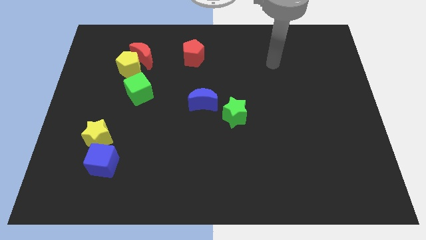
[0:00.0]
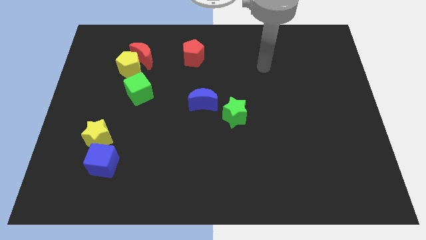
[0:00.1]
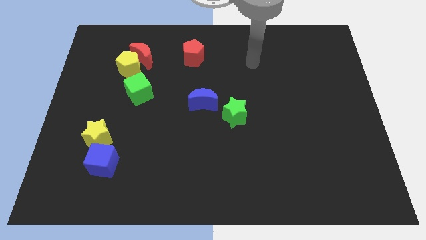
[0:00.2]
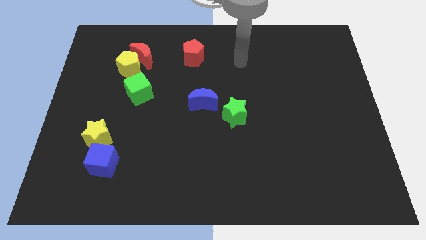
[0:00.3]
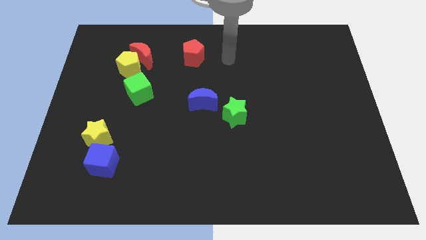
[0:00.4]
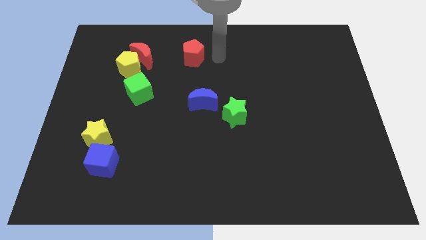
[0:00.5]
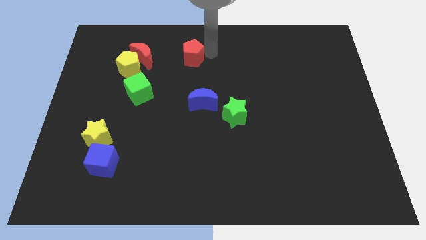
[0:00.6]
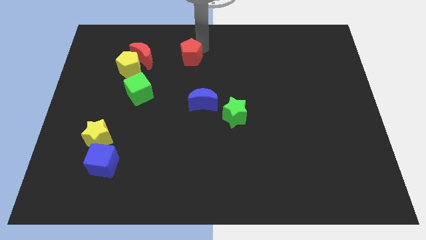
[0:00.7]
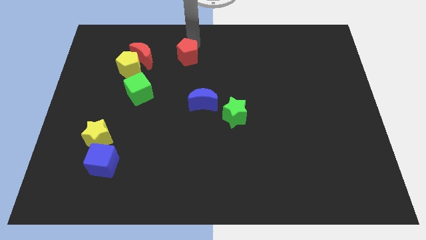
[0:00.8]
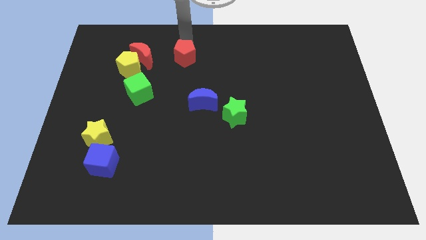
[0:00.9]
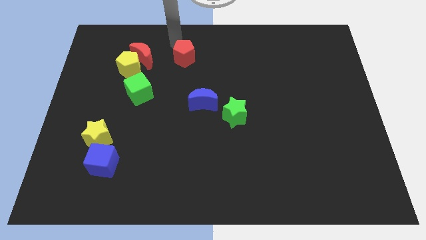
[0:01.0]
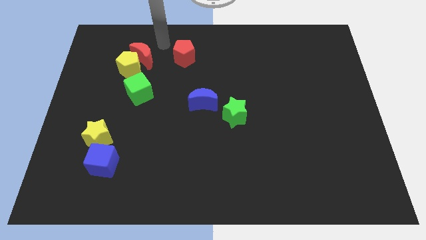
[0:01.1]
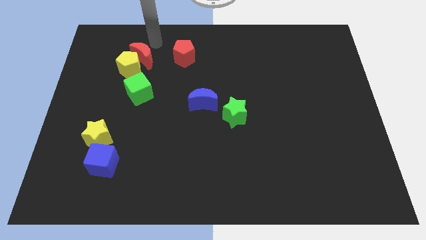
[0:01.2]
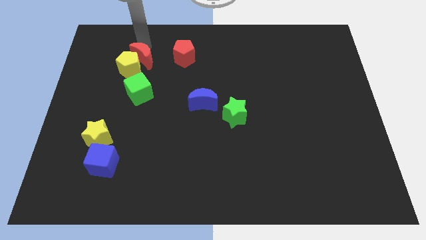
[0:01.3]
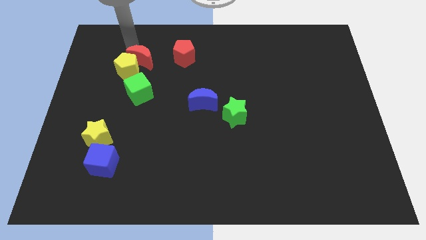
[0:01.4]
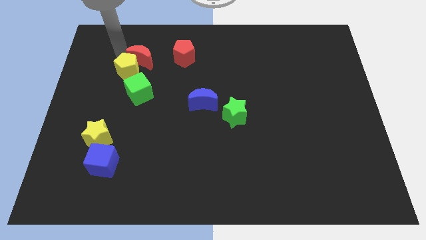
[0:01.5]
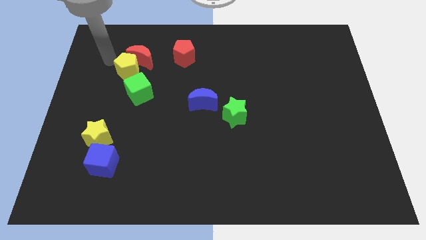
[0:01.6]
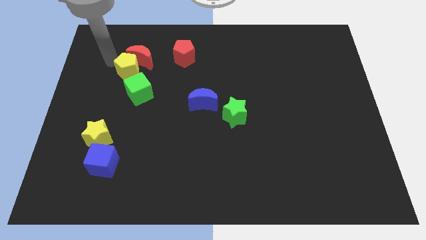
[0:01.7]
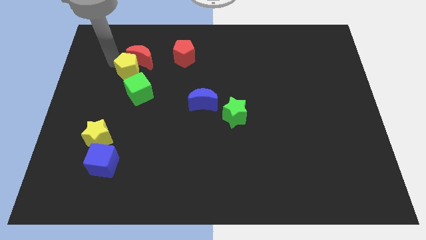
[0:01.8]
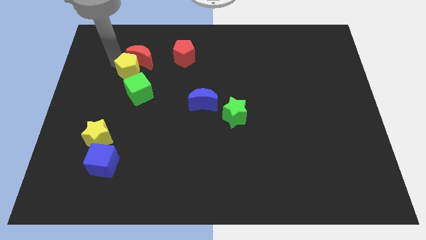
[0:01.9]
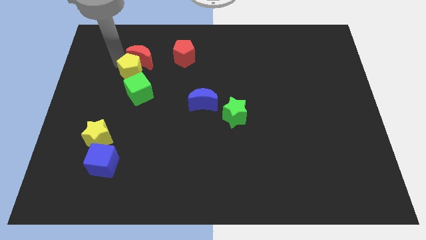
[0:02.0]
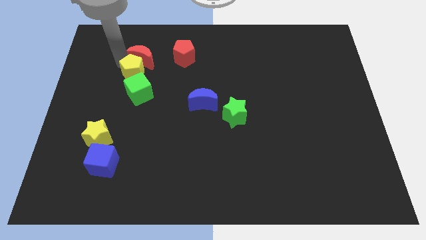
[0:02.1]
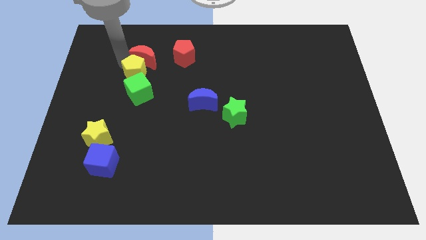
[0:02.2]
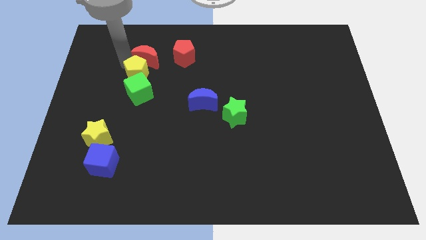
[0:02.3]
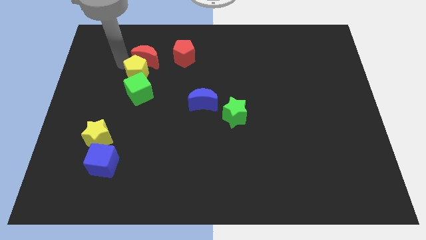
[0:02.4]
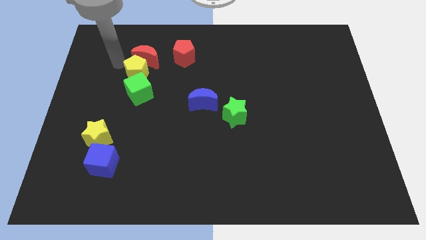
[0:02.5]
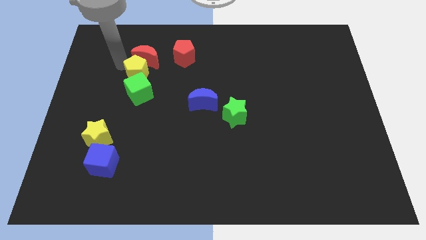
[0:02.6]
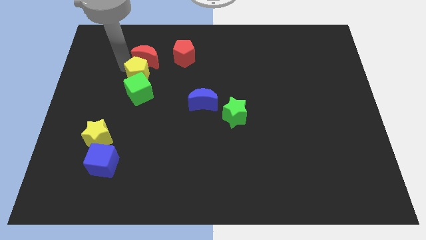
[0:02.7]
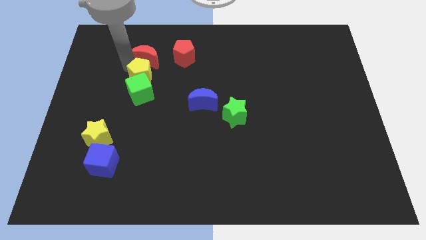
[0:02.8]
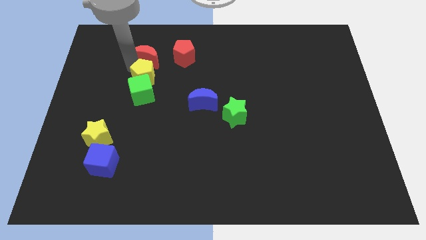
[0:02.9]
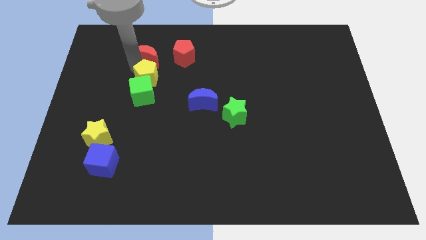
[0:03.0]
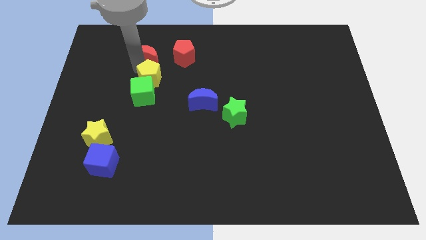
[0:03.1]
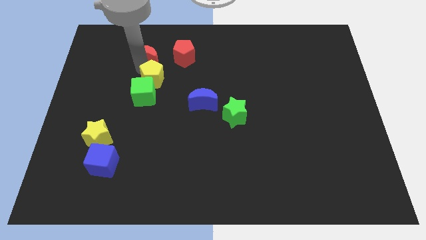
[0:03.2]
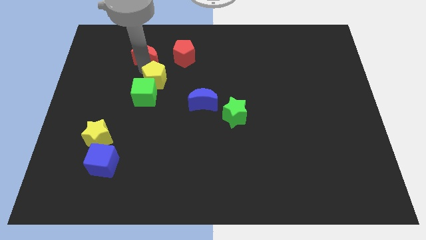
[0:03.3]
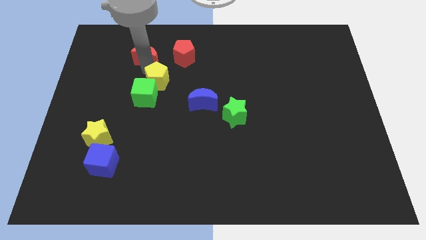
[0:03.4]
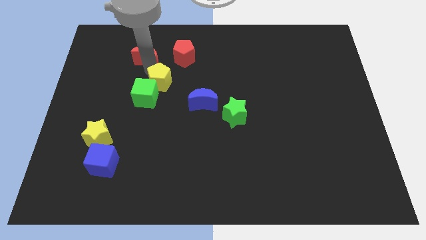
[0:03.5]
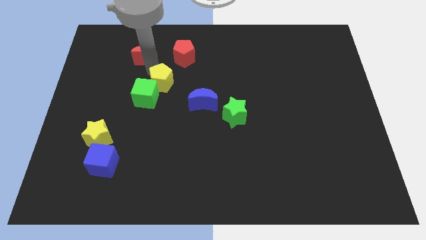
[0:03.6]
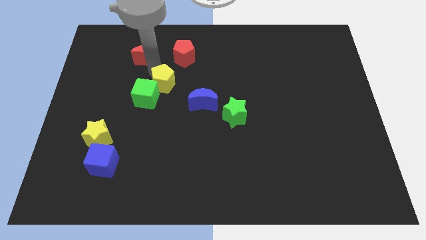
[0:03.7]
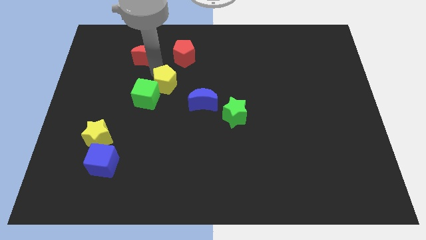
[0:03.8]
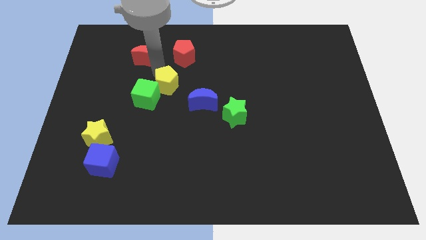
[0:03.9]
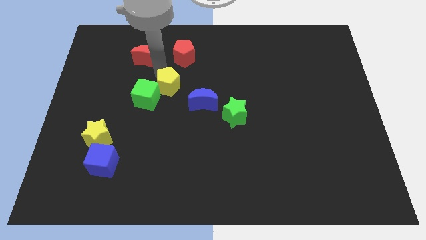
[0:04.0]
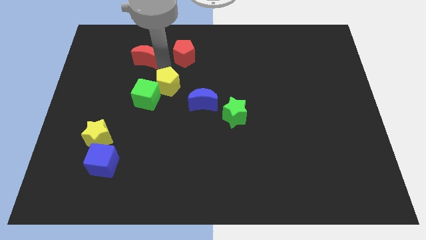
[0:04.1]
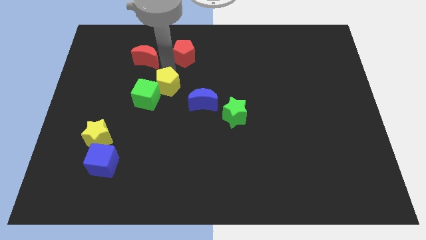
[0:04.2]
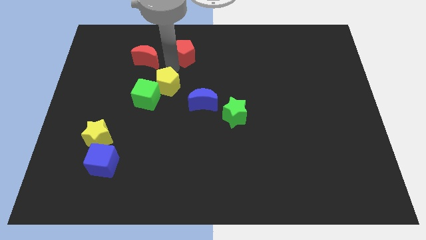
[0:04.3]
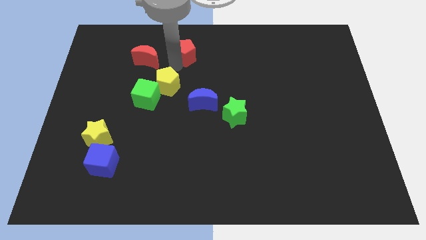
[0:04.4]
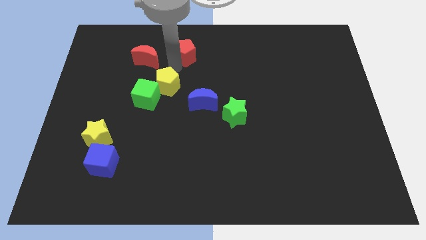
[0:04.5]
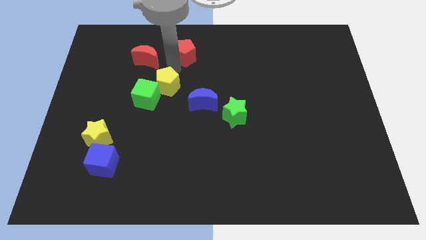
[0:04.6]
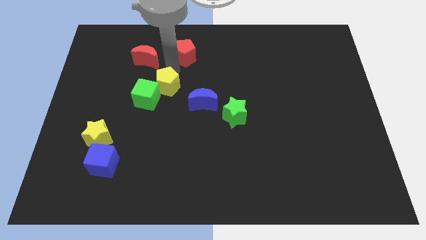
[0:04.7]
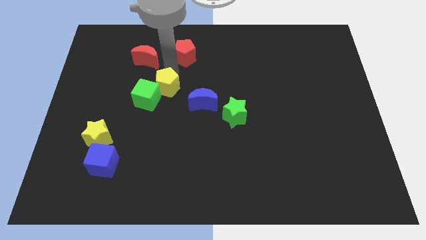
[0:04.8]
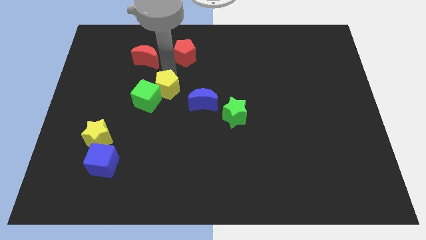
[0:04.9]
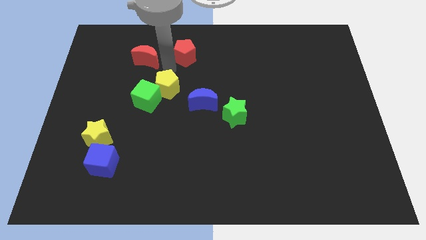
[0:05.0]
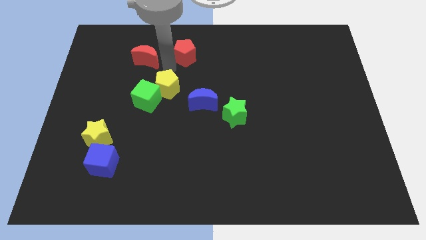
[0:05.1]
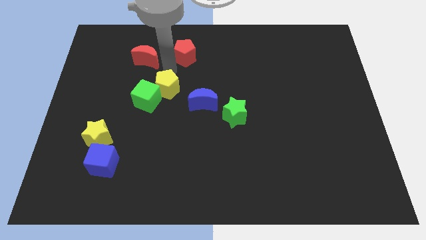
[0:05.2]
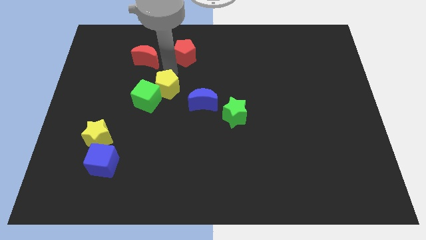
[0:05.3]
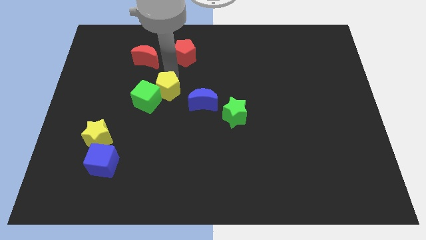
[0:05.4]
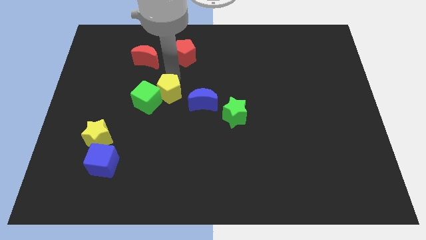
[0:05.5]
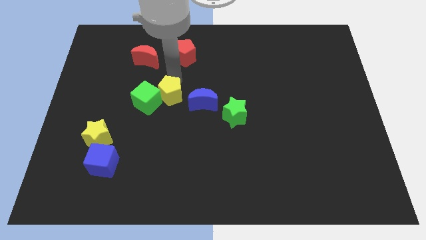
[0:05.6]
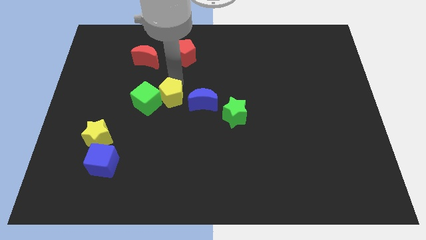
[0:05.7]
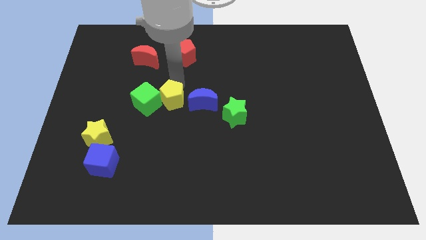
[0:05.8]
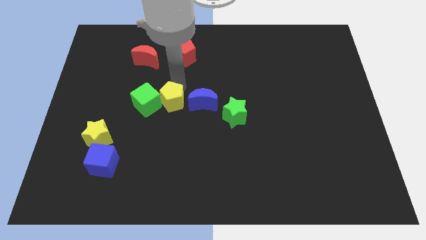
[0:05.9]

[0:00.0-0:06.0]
push the yellow pentagon to the bottom right of the green cube
